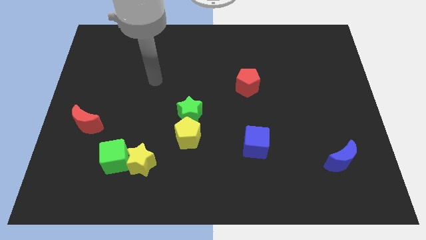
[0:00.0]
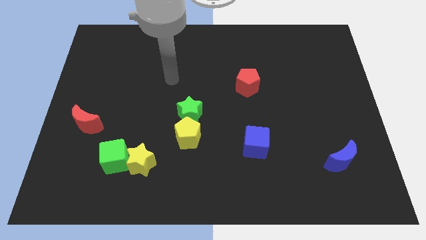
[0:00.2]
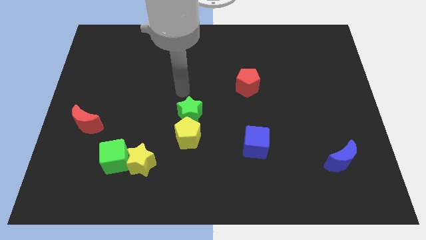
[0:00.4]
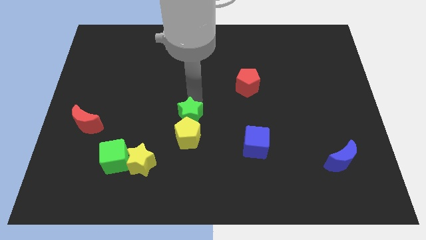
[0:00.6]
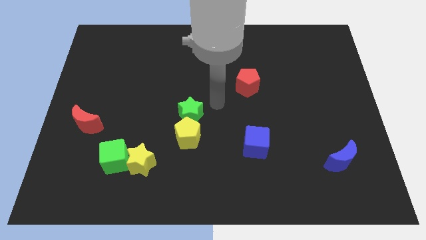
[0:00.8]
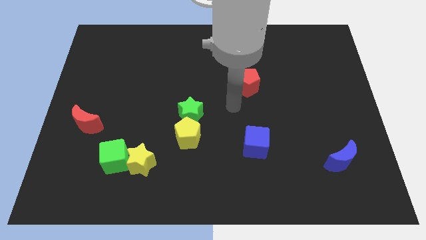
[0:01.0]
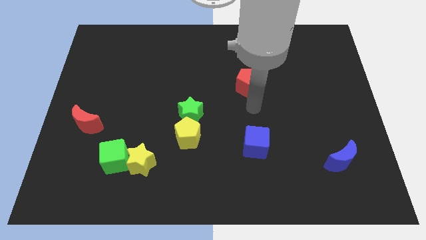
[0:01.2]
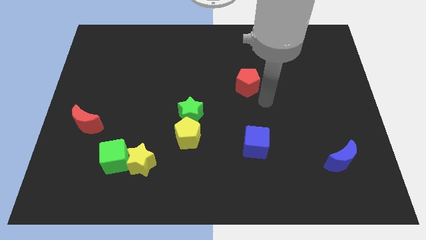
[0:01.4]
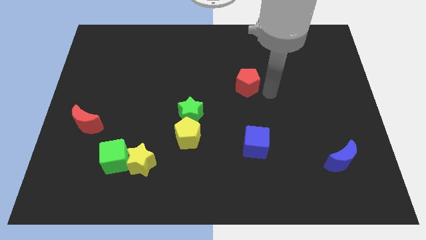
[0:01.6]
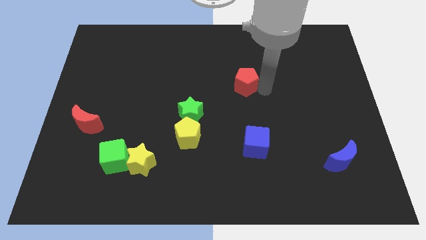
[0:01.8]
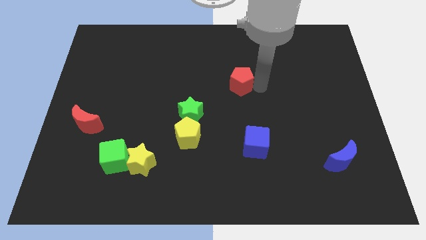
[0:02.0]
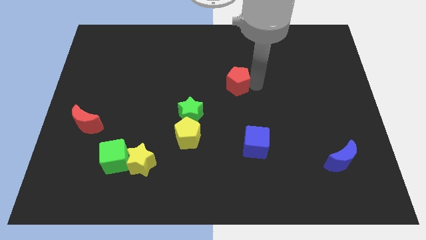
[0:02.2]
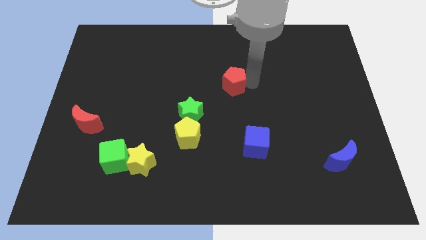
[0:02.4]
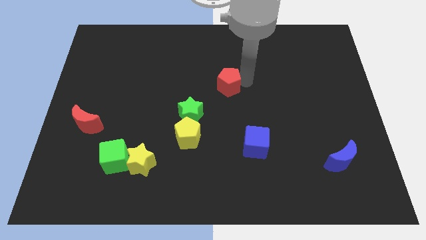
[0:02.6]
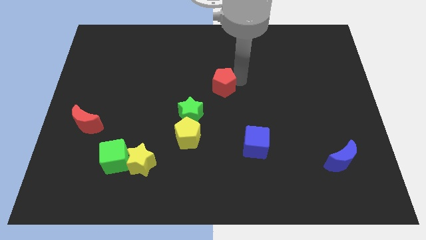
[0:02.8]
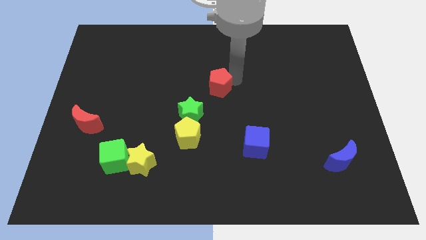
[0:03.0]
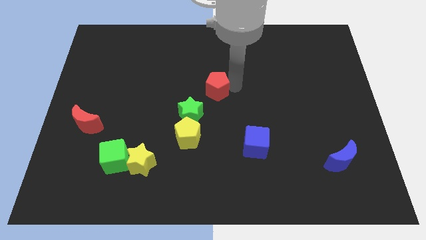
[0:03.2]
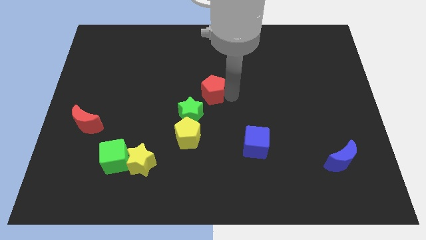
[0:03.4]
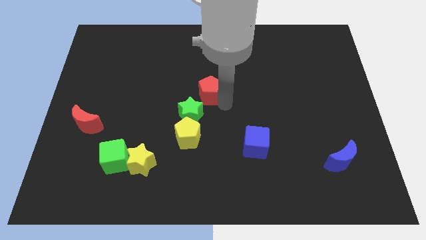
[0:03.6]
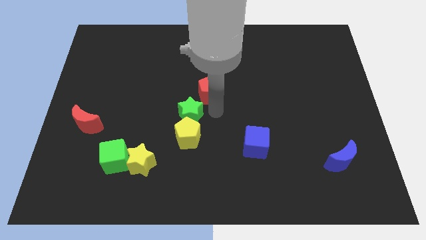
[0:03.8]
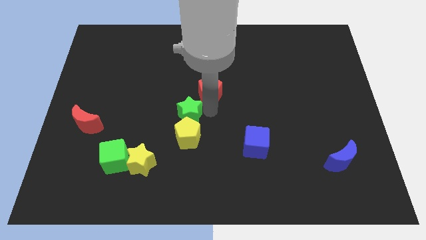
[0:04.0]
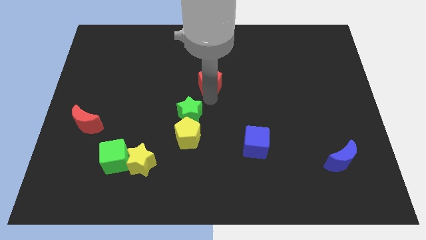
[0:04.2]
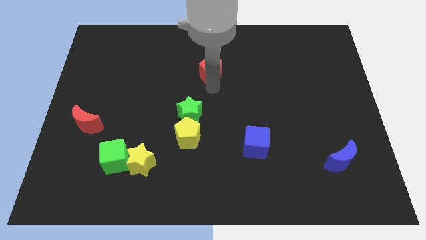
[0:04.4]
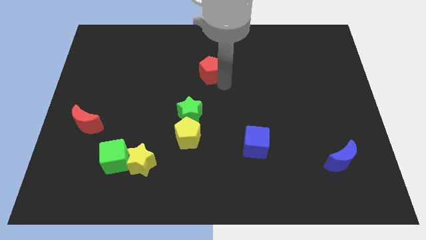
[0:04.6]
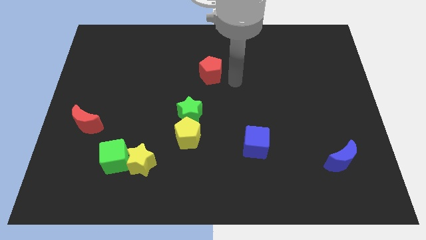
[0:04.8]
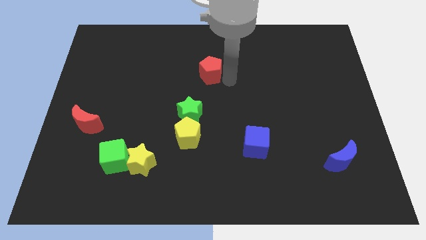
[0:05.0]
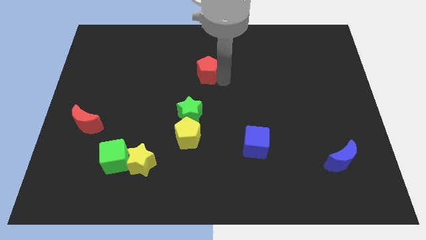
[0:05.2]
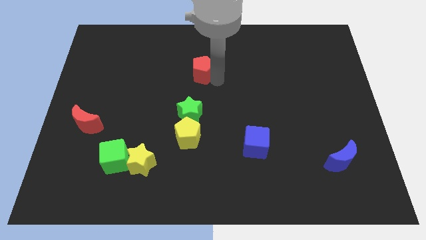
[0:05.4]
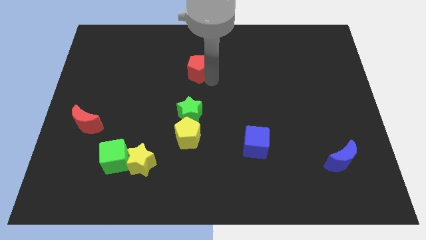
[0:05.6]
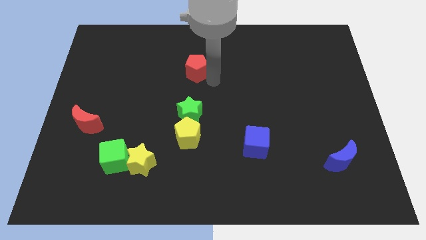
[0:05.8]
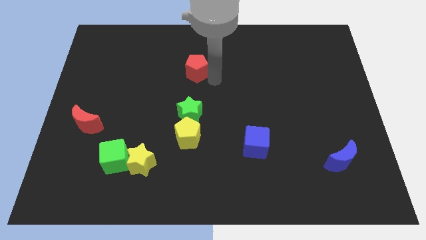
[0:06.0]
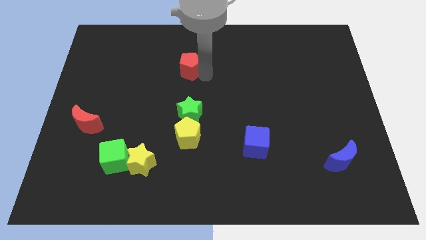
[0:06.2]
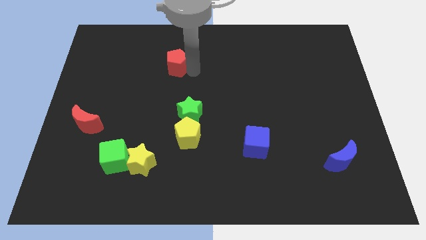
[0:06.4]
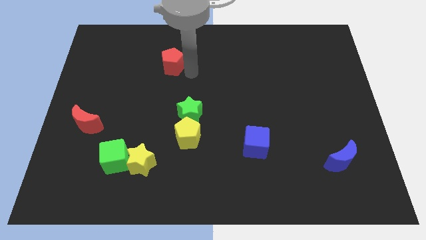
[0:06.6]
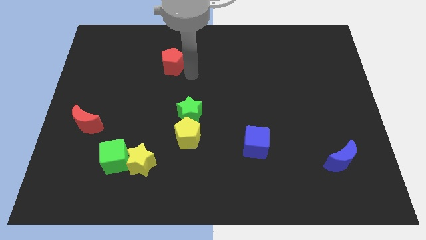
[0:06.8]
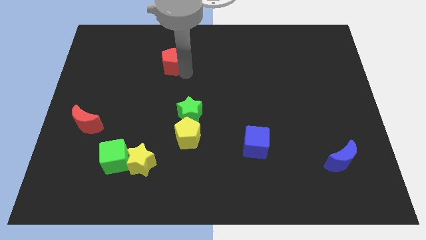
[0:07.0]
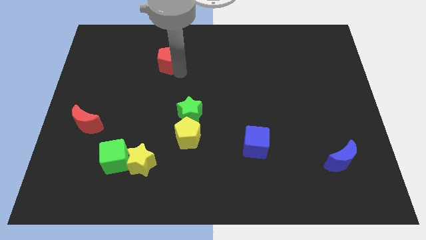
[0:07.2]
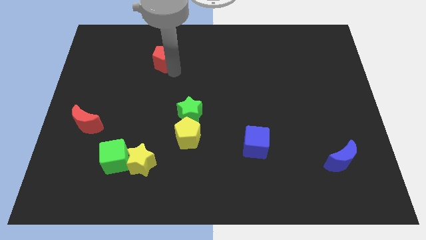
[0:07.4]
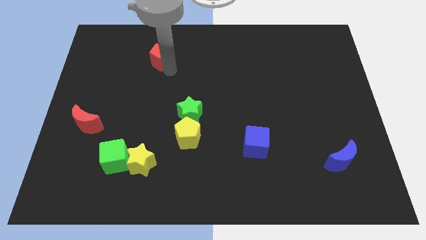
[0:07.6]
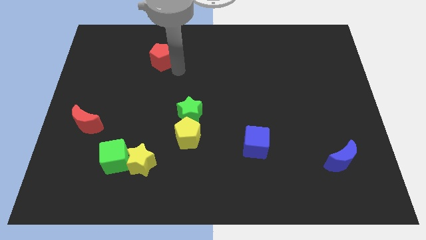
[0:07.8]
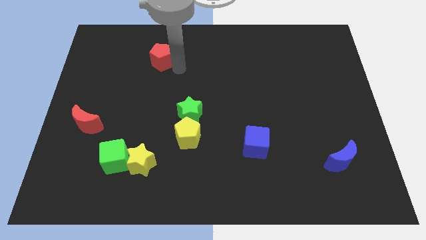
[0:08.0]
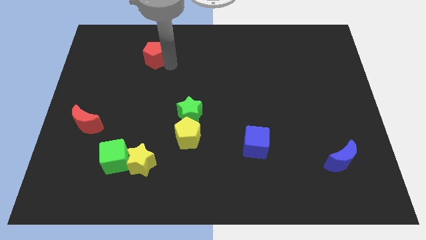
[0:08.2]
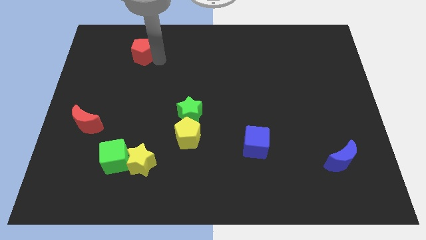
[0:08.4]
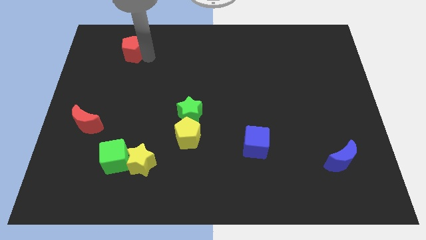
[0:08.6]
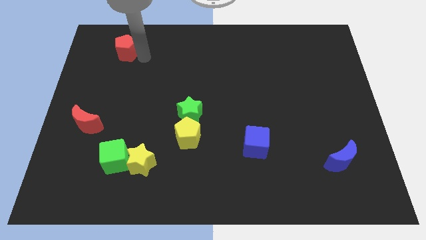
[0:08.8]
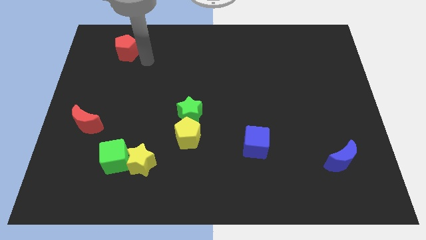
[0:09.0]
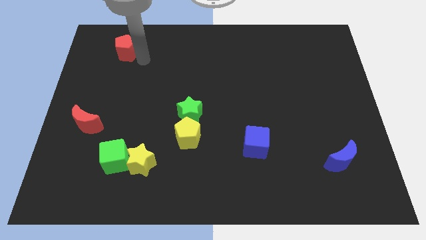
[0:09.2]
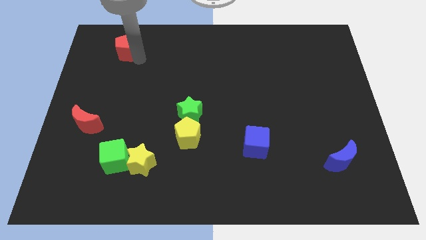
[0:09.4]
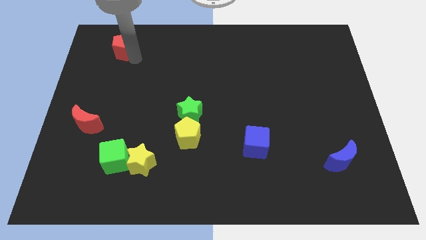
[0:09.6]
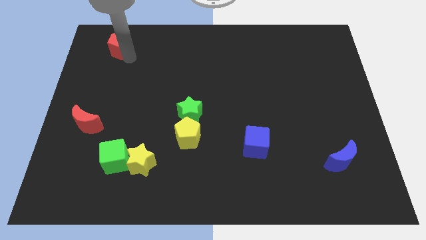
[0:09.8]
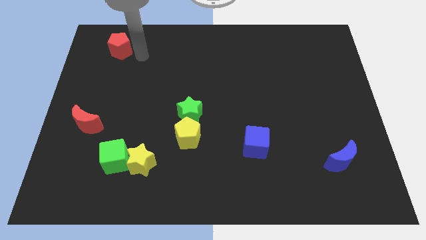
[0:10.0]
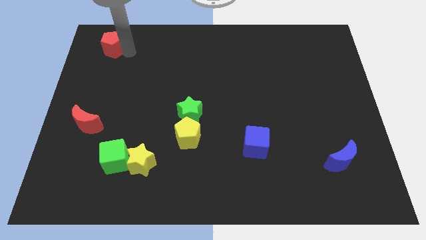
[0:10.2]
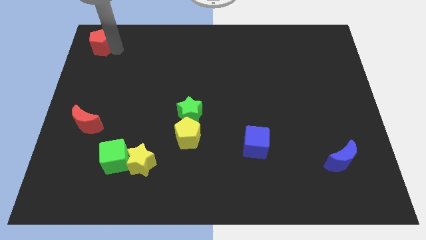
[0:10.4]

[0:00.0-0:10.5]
move the red pentagon to the upper left corner

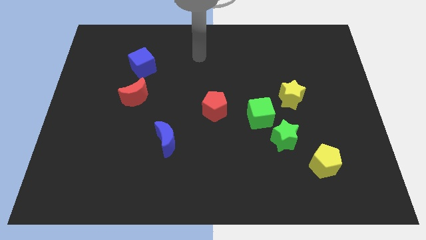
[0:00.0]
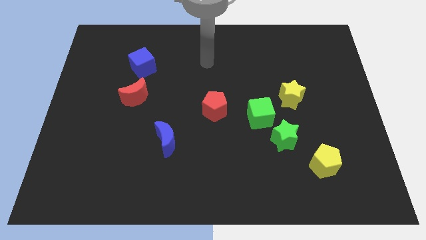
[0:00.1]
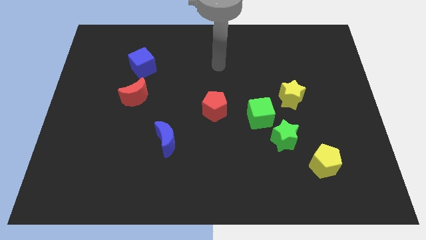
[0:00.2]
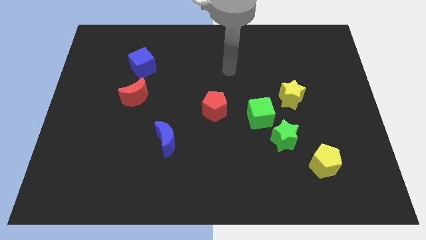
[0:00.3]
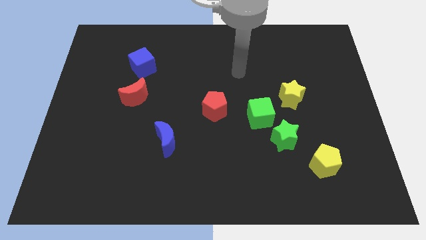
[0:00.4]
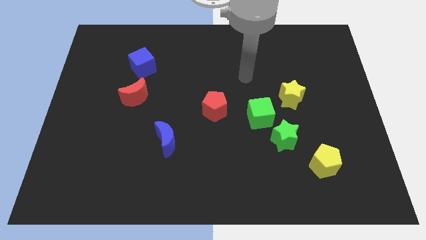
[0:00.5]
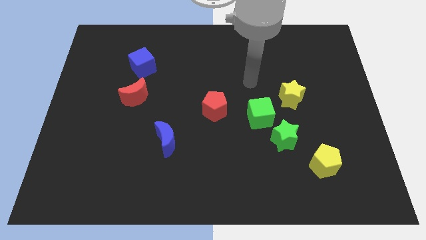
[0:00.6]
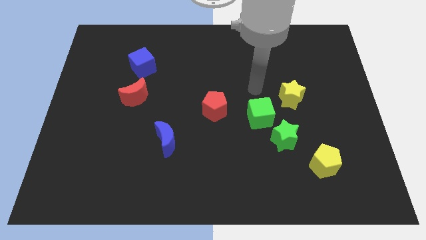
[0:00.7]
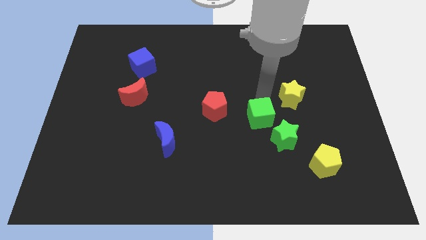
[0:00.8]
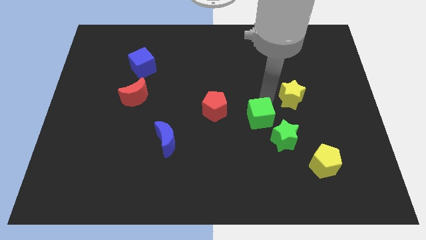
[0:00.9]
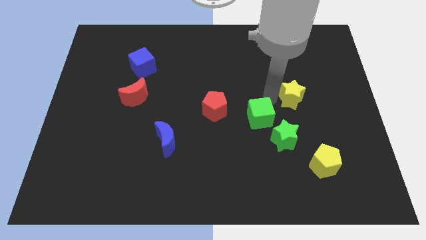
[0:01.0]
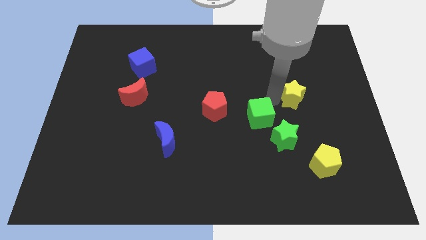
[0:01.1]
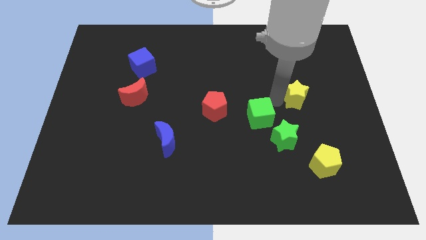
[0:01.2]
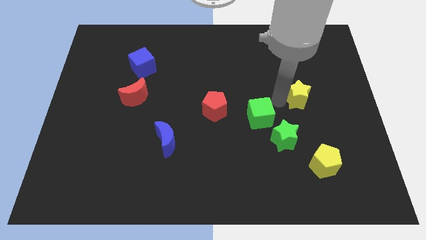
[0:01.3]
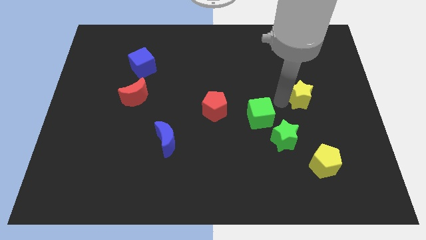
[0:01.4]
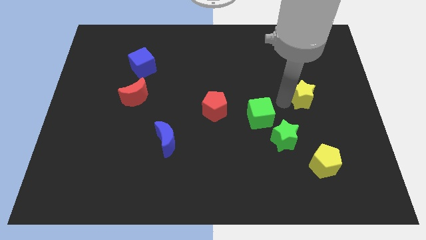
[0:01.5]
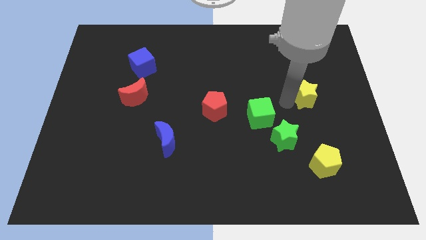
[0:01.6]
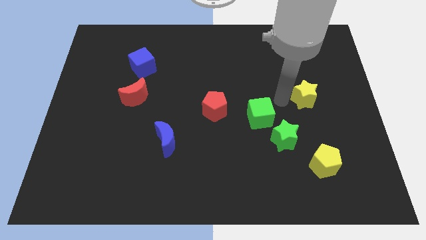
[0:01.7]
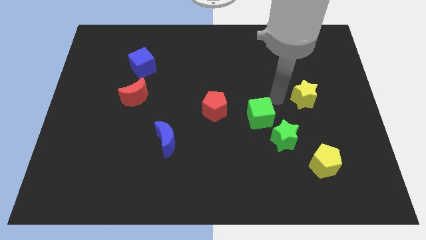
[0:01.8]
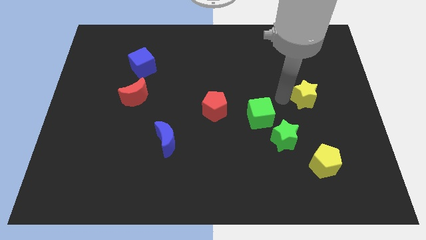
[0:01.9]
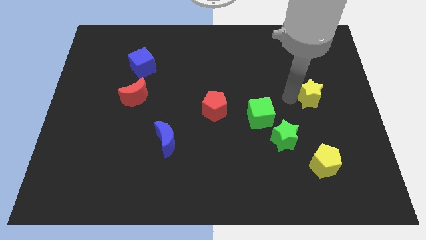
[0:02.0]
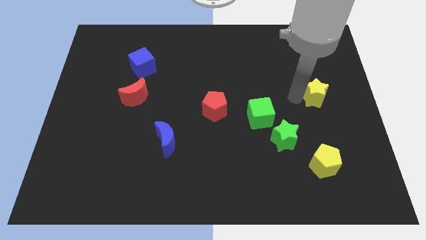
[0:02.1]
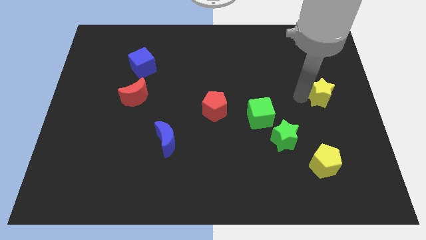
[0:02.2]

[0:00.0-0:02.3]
push the yellow star to the right side of the board
